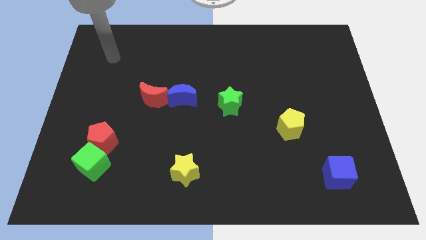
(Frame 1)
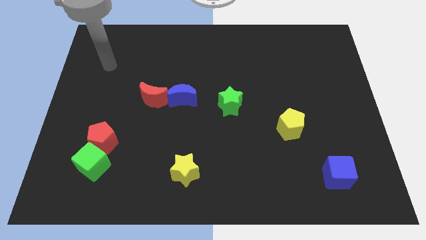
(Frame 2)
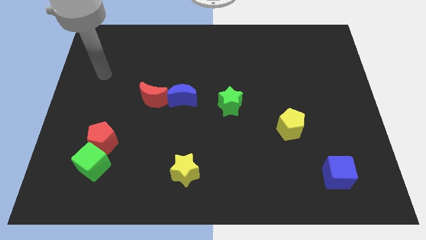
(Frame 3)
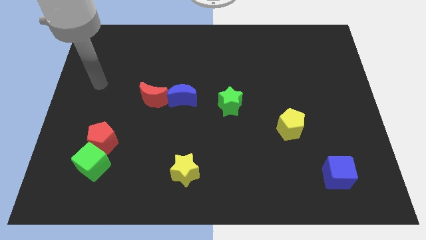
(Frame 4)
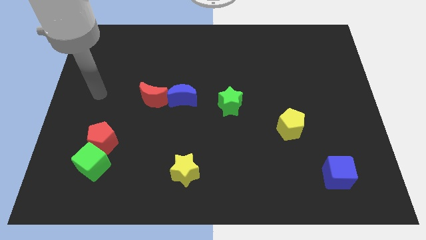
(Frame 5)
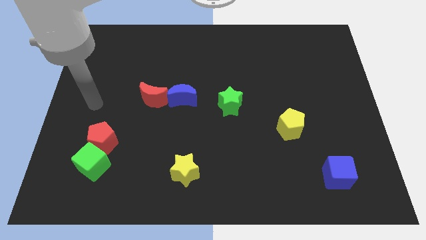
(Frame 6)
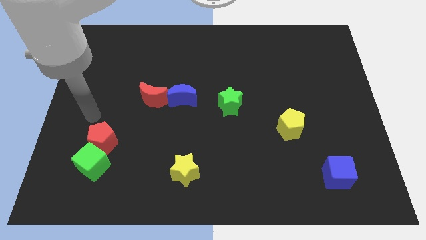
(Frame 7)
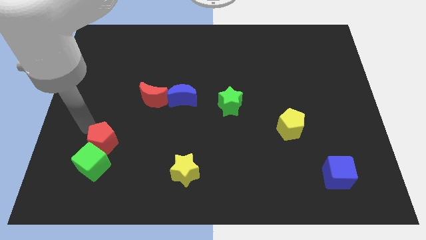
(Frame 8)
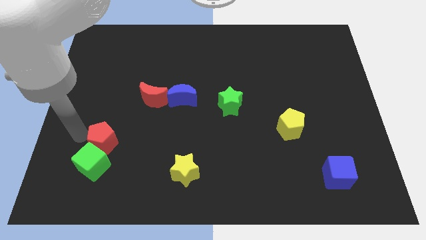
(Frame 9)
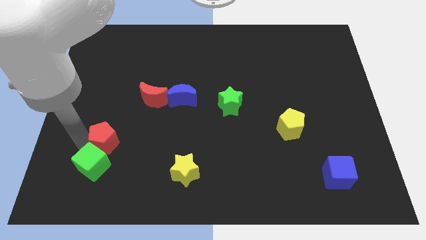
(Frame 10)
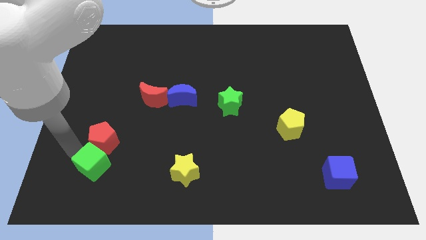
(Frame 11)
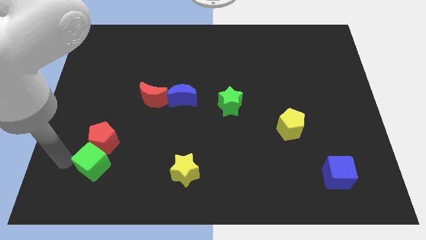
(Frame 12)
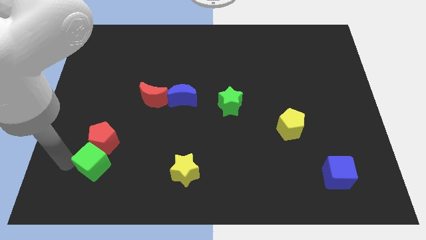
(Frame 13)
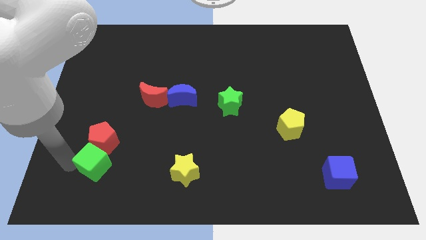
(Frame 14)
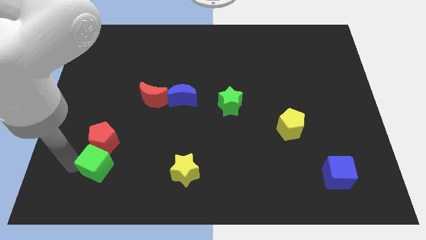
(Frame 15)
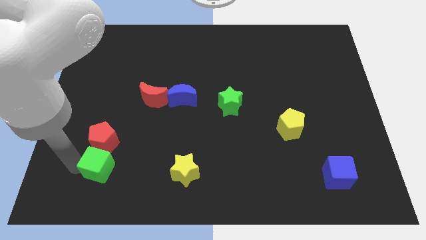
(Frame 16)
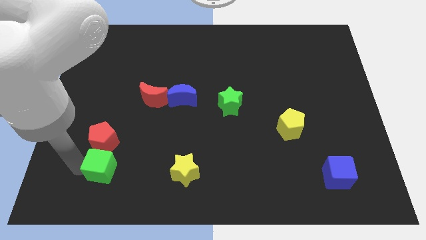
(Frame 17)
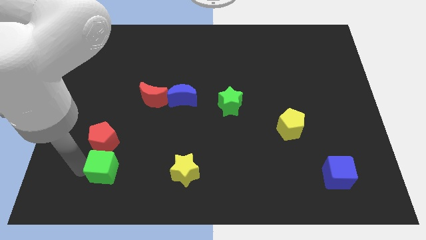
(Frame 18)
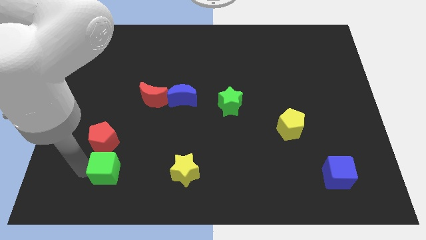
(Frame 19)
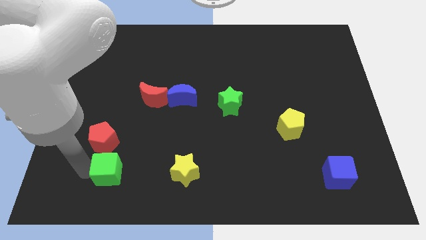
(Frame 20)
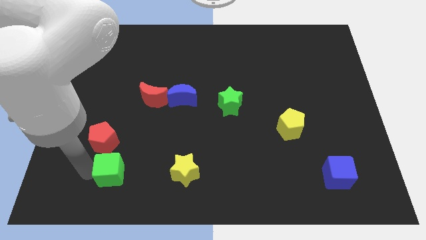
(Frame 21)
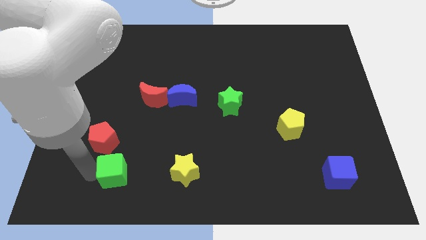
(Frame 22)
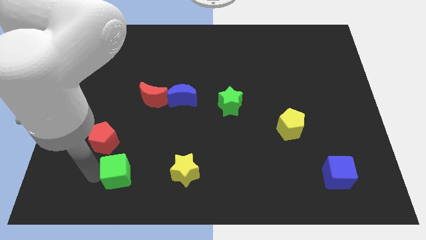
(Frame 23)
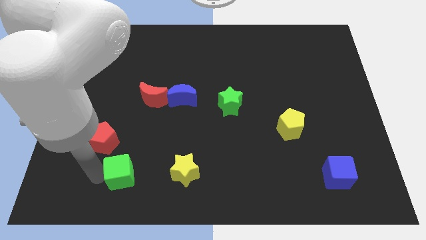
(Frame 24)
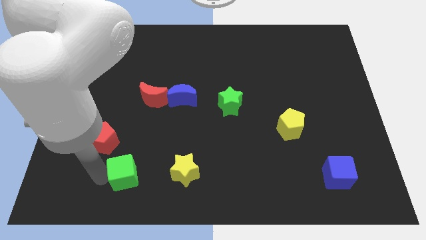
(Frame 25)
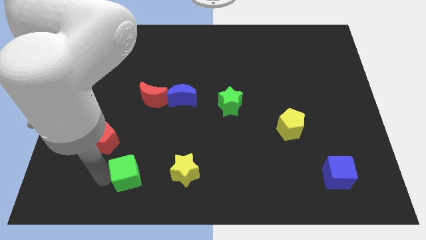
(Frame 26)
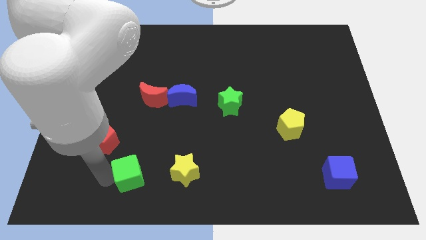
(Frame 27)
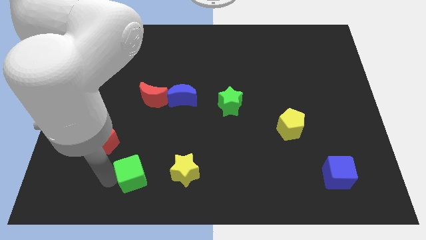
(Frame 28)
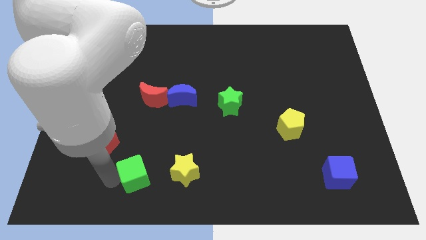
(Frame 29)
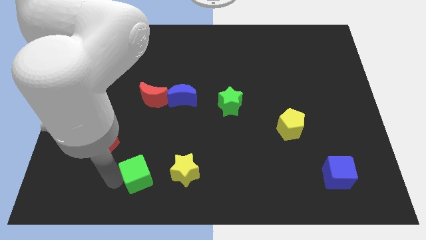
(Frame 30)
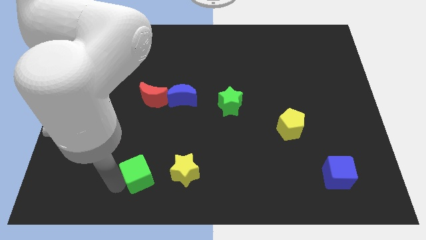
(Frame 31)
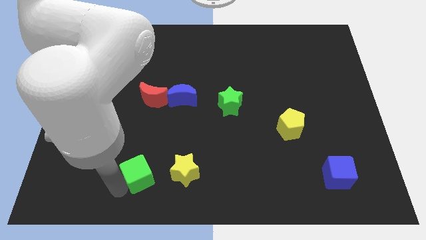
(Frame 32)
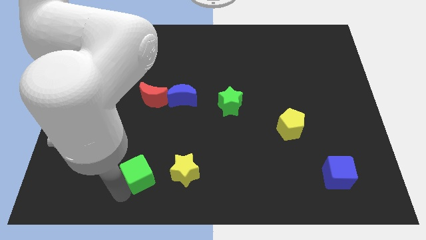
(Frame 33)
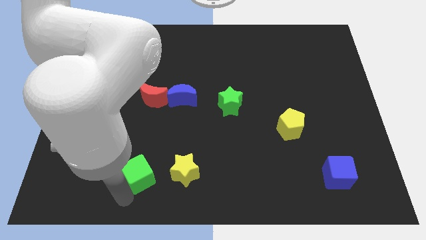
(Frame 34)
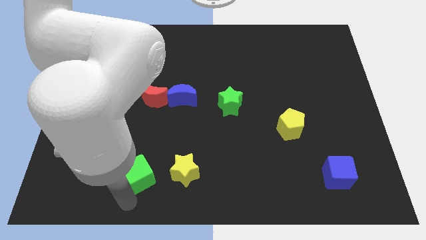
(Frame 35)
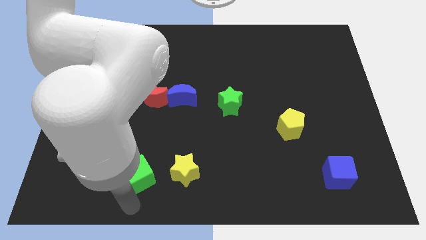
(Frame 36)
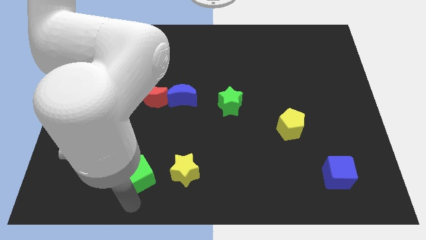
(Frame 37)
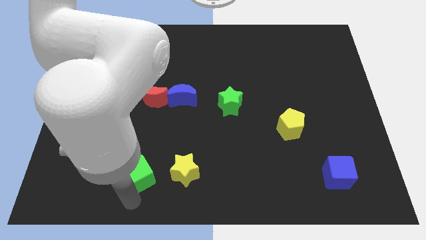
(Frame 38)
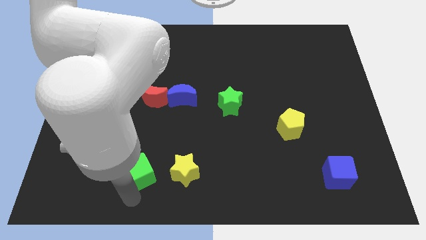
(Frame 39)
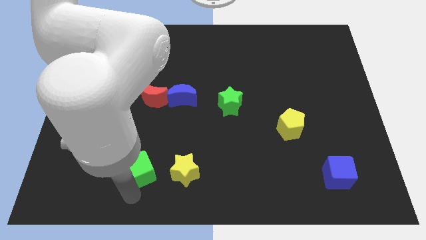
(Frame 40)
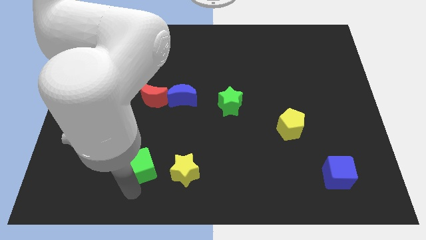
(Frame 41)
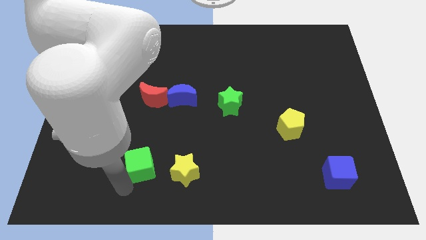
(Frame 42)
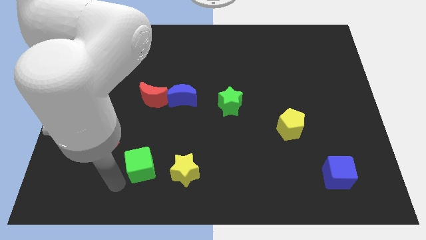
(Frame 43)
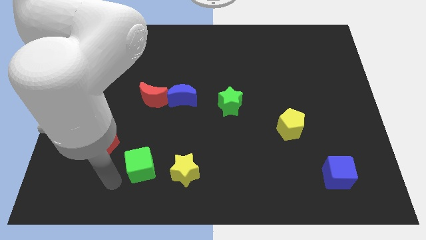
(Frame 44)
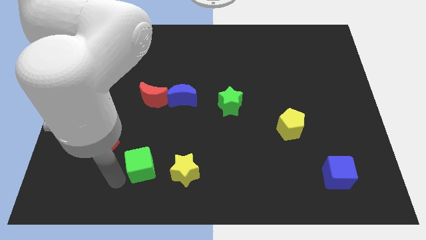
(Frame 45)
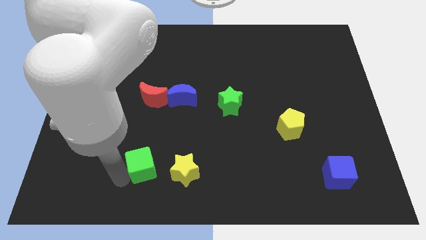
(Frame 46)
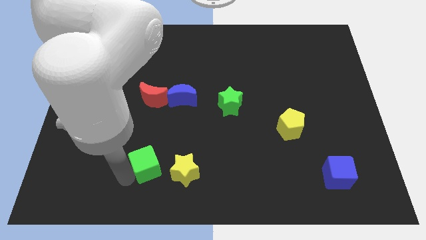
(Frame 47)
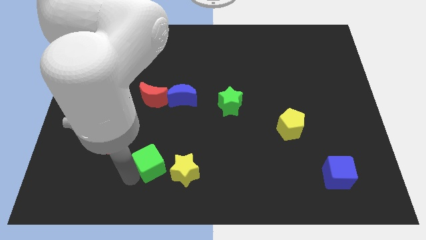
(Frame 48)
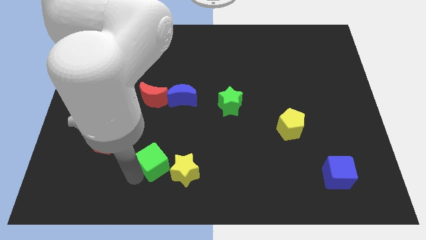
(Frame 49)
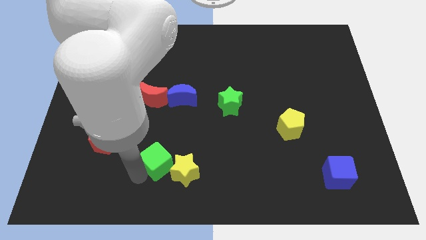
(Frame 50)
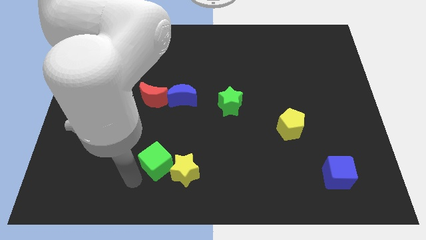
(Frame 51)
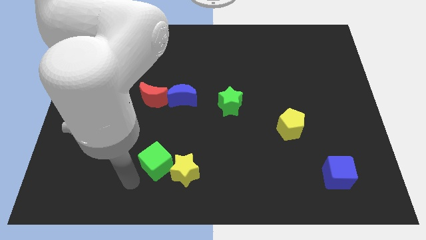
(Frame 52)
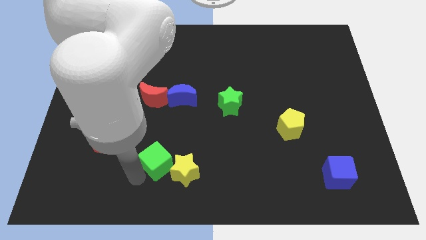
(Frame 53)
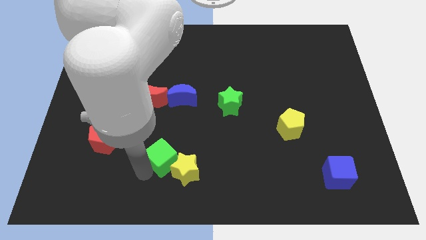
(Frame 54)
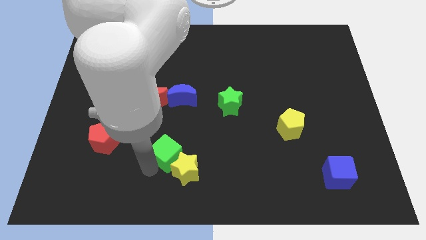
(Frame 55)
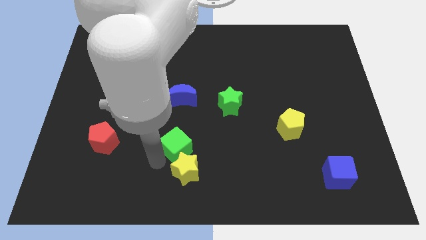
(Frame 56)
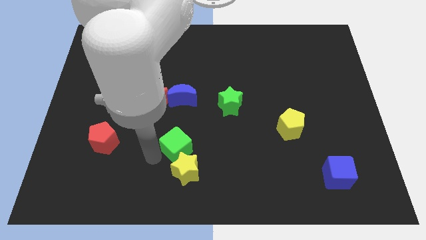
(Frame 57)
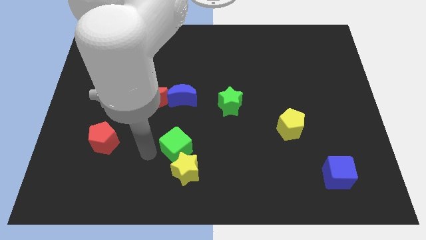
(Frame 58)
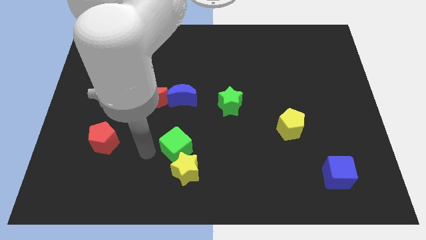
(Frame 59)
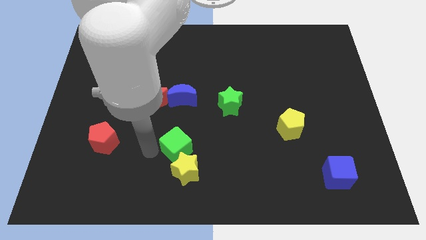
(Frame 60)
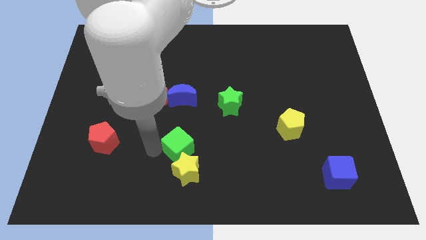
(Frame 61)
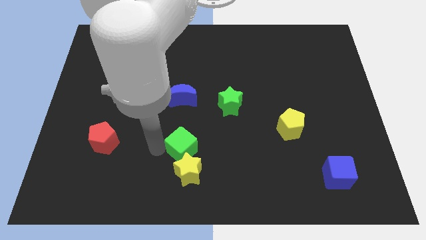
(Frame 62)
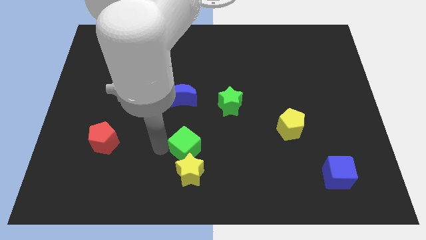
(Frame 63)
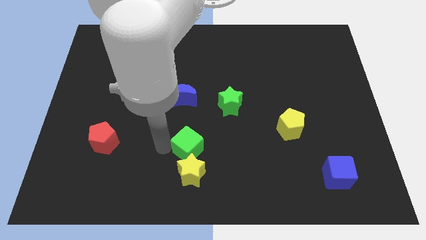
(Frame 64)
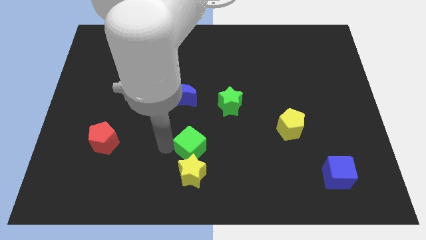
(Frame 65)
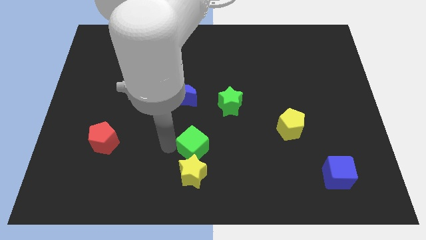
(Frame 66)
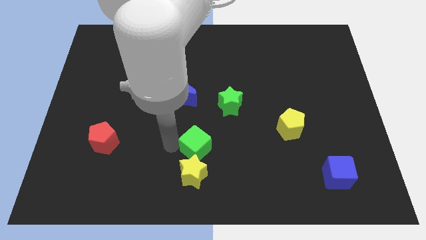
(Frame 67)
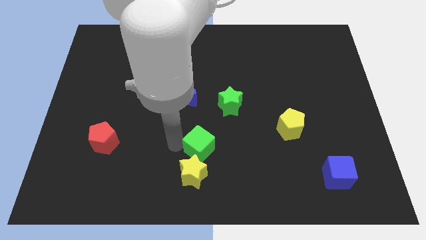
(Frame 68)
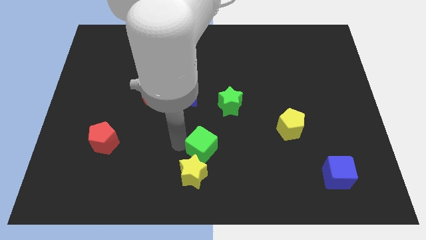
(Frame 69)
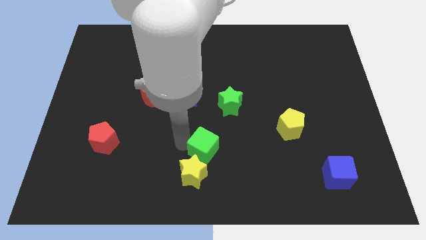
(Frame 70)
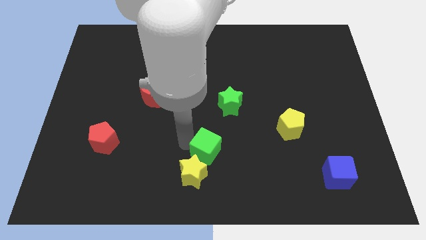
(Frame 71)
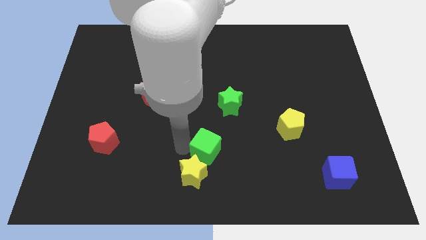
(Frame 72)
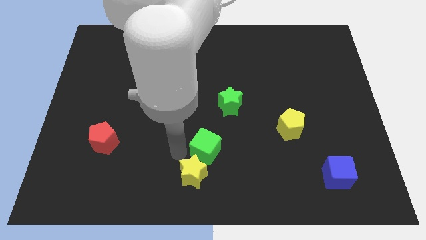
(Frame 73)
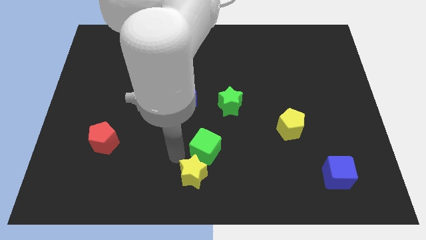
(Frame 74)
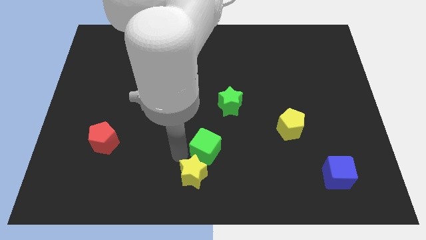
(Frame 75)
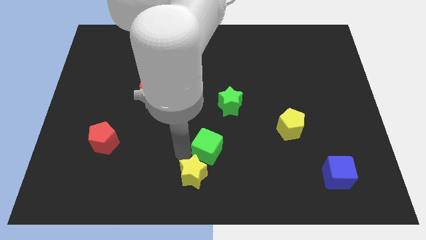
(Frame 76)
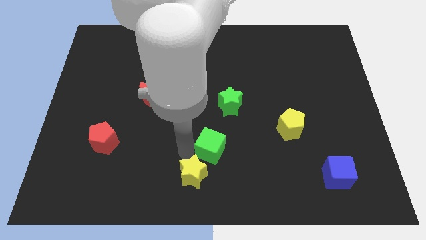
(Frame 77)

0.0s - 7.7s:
move the green cube to the bottom of the green star
